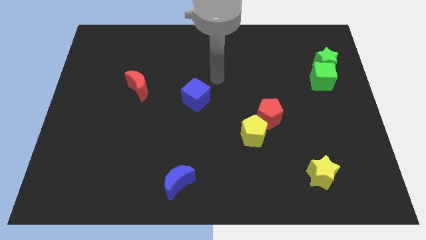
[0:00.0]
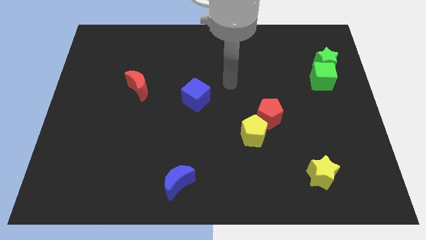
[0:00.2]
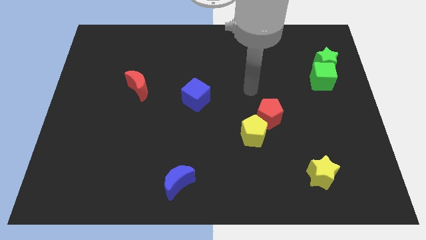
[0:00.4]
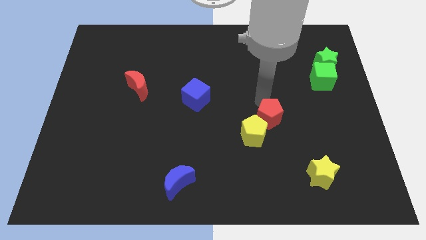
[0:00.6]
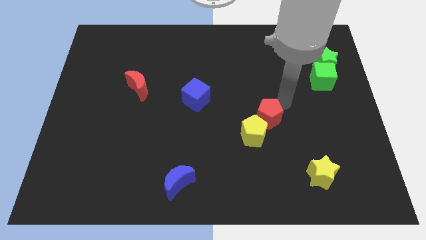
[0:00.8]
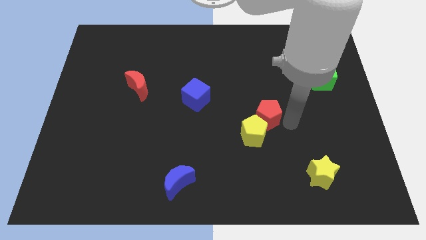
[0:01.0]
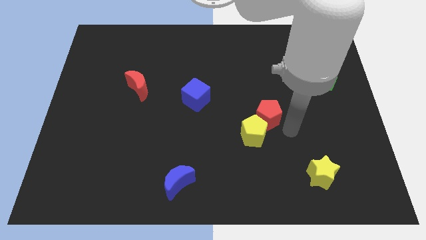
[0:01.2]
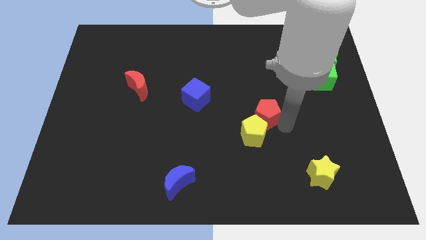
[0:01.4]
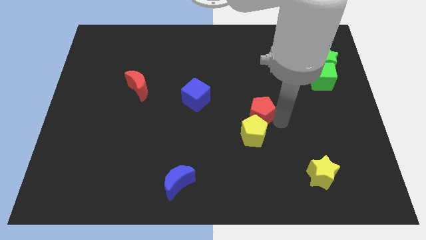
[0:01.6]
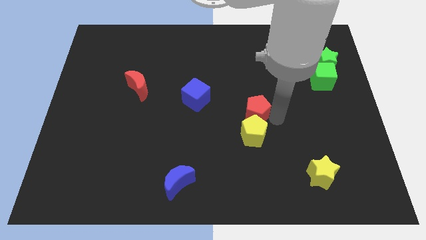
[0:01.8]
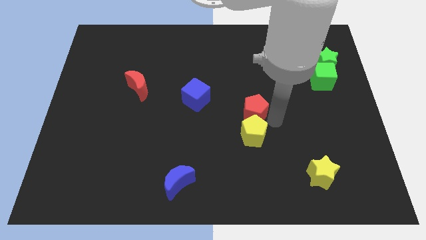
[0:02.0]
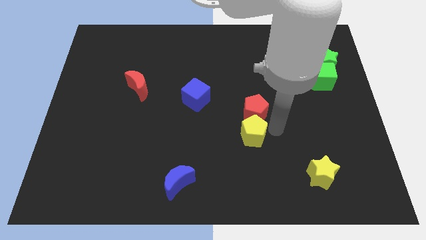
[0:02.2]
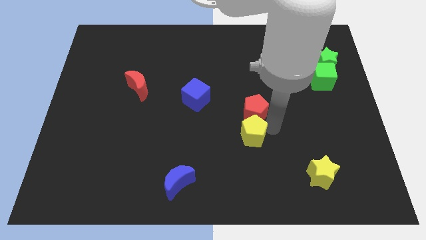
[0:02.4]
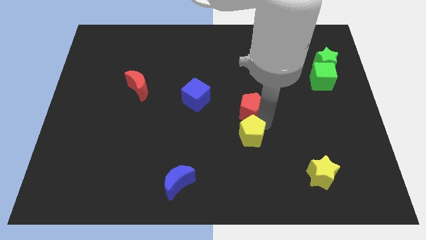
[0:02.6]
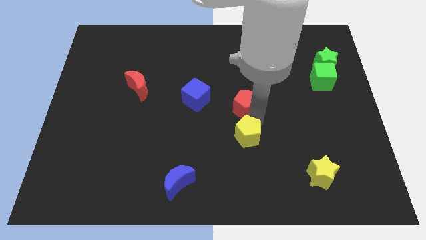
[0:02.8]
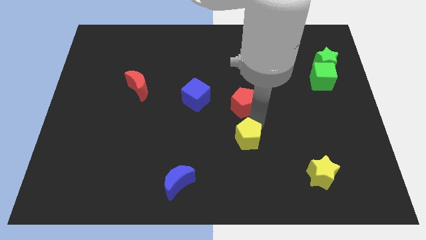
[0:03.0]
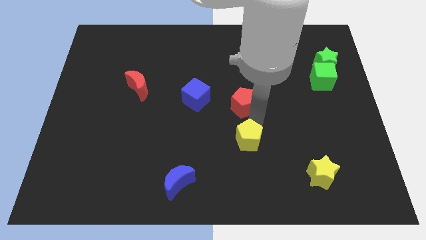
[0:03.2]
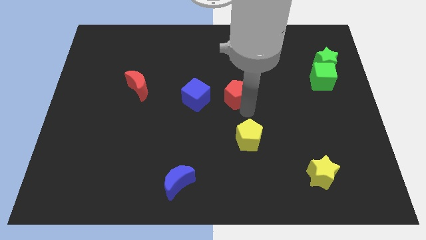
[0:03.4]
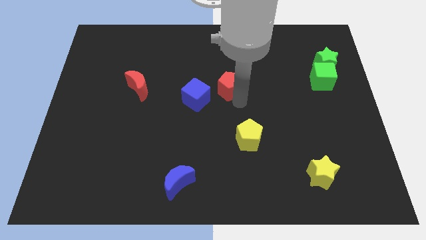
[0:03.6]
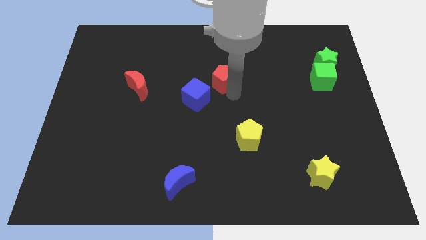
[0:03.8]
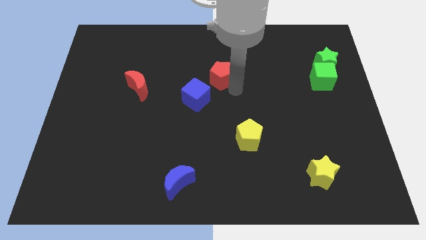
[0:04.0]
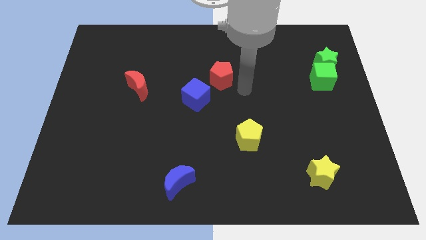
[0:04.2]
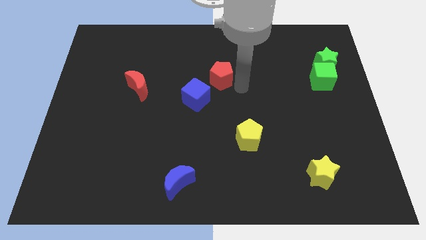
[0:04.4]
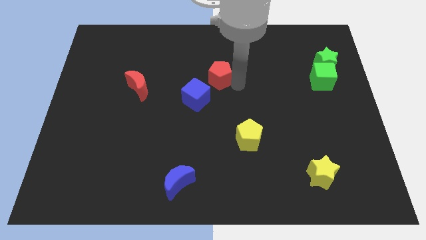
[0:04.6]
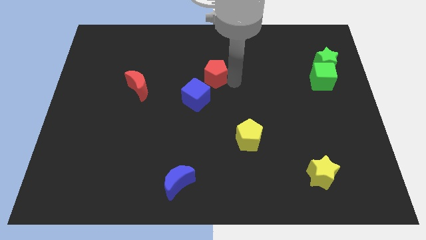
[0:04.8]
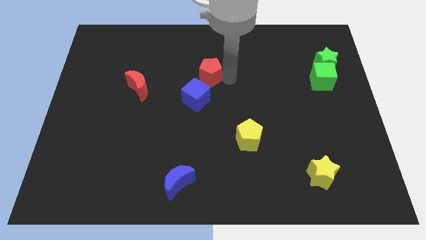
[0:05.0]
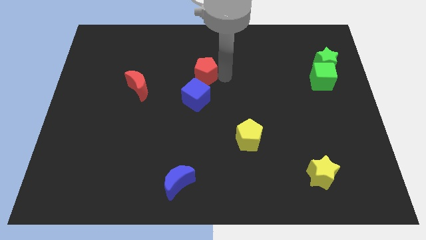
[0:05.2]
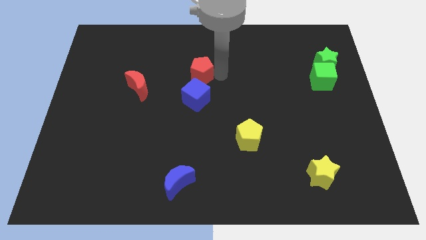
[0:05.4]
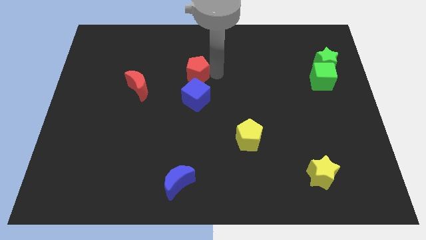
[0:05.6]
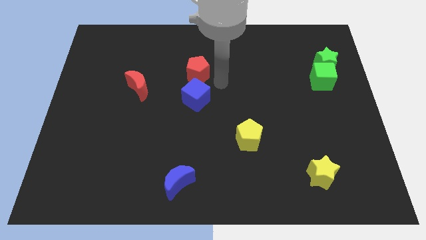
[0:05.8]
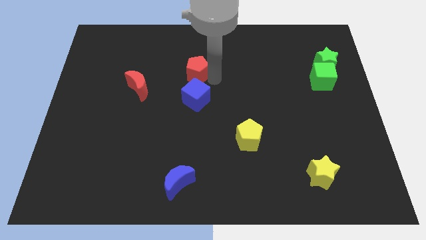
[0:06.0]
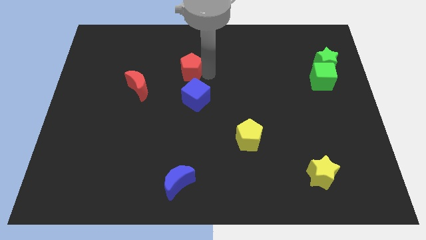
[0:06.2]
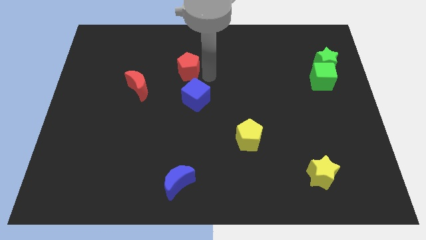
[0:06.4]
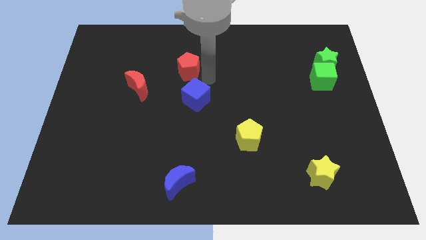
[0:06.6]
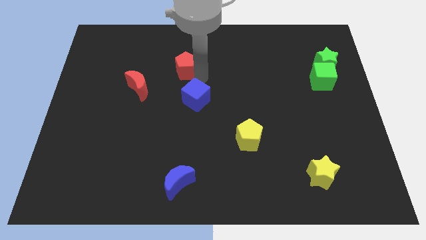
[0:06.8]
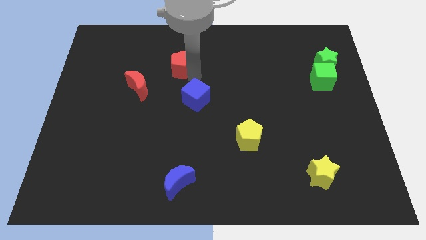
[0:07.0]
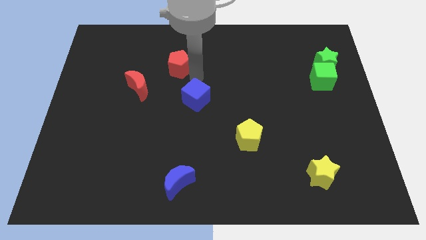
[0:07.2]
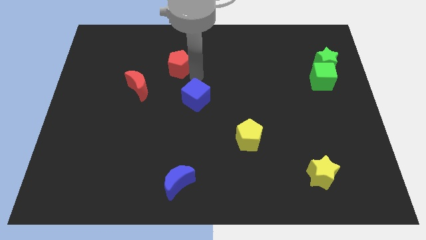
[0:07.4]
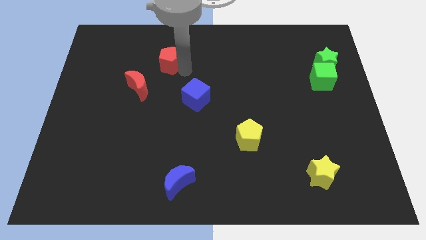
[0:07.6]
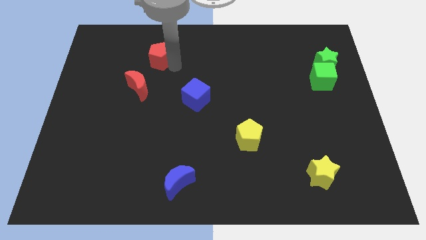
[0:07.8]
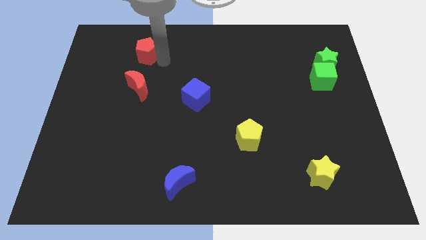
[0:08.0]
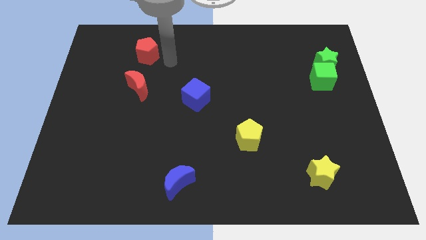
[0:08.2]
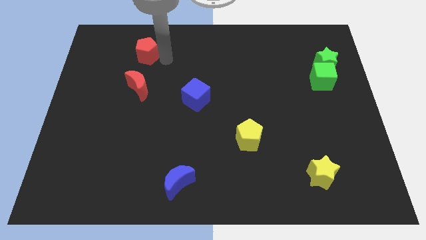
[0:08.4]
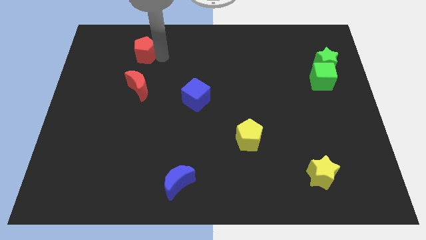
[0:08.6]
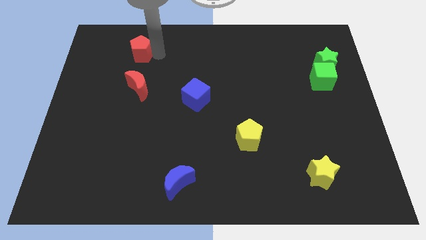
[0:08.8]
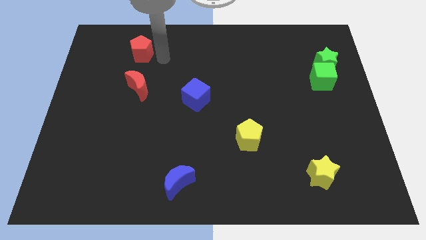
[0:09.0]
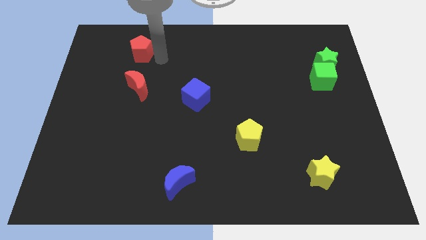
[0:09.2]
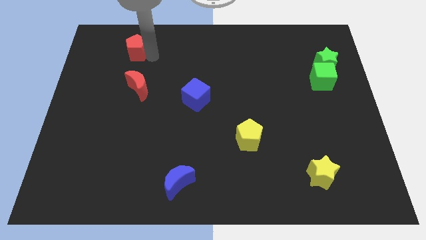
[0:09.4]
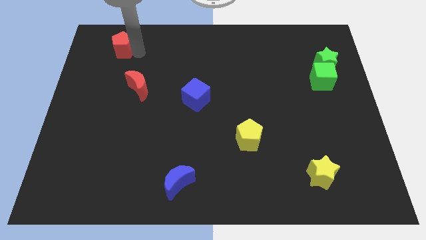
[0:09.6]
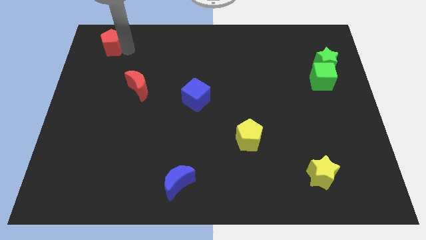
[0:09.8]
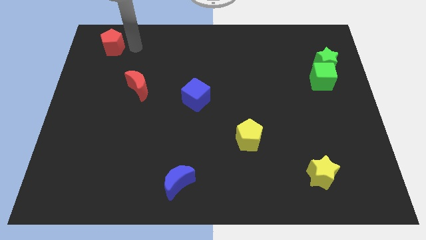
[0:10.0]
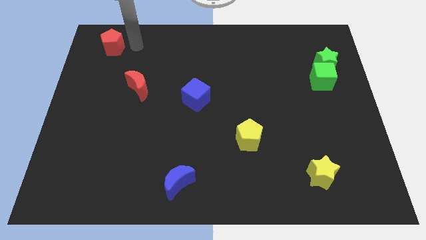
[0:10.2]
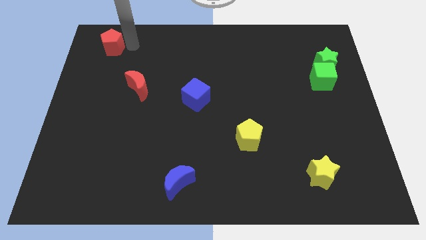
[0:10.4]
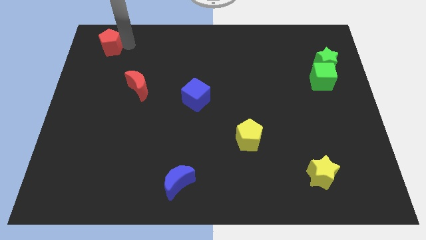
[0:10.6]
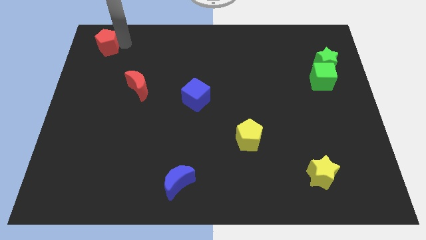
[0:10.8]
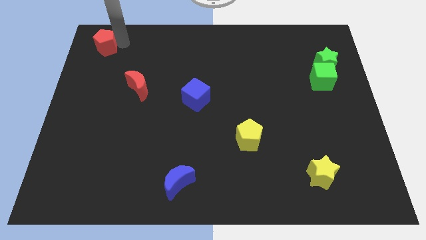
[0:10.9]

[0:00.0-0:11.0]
put the red pentagon to the upper left corner

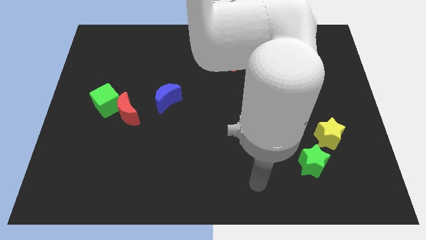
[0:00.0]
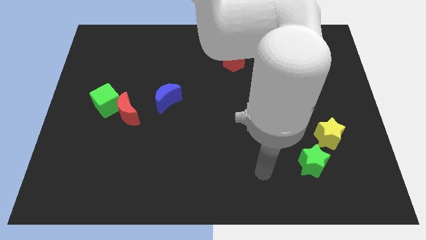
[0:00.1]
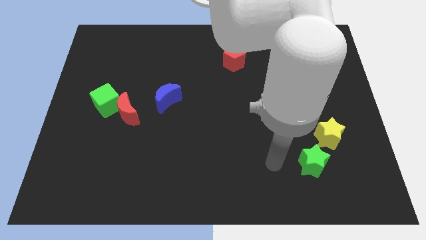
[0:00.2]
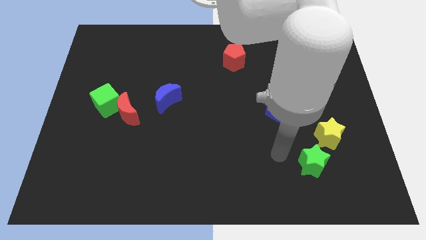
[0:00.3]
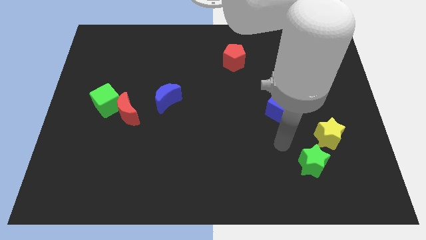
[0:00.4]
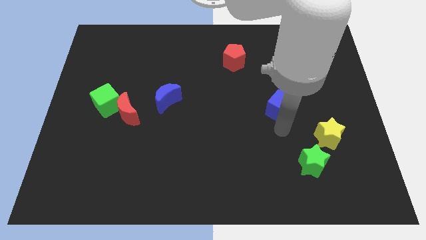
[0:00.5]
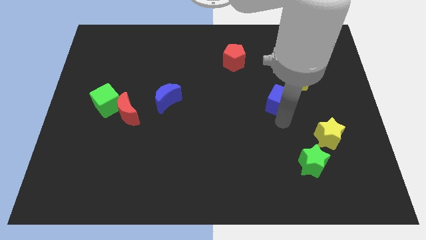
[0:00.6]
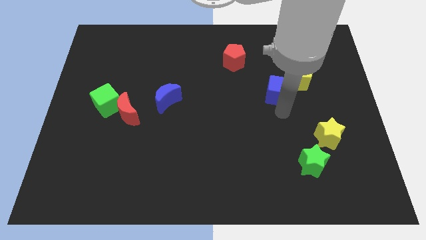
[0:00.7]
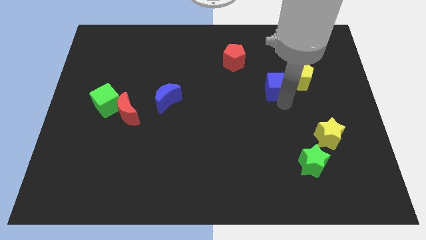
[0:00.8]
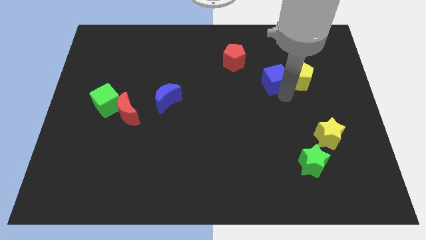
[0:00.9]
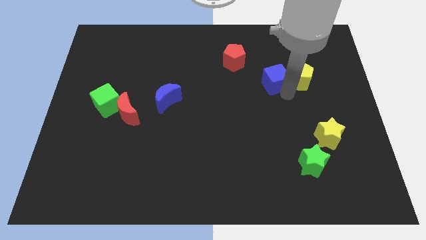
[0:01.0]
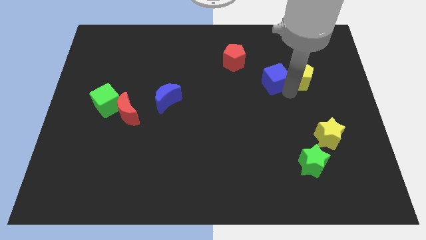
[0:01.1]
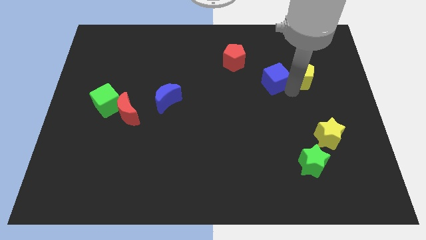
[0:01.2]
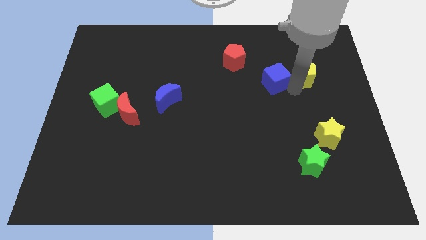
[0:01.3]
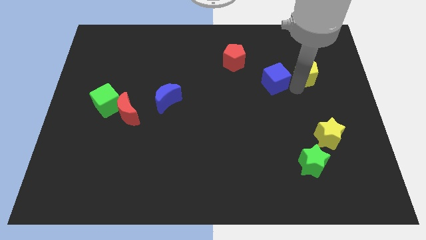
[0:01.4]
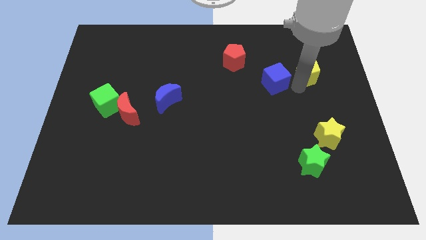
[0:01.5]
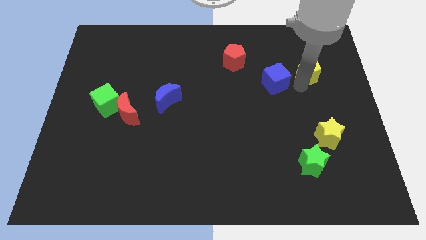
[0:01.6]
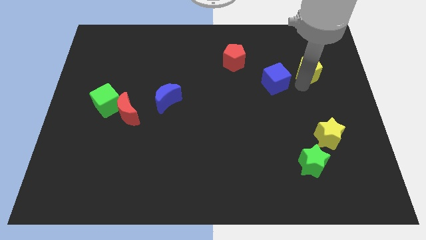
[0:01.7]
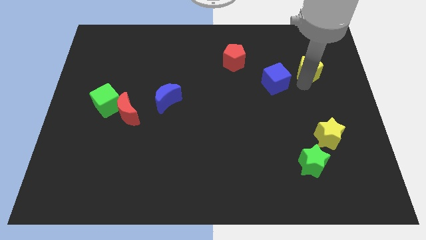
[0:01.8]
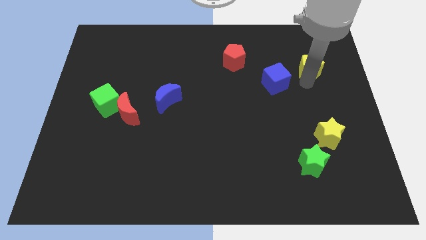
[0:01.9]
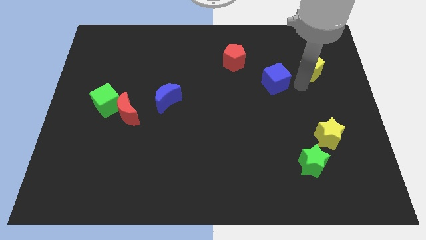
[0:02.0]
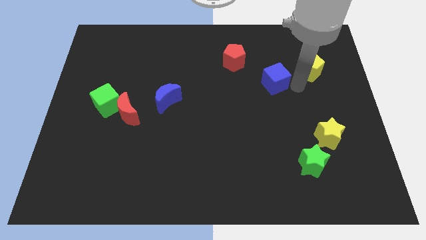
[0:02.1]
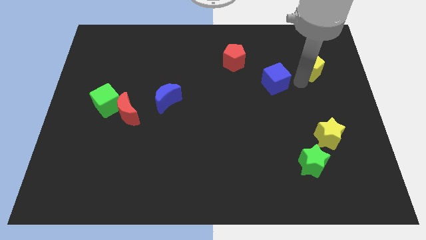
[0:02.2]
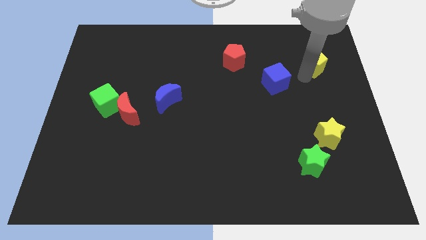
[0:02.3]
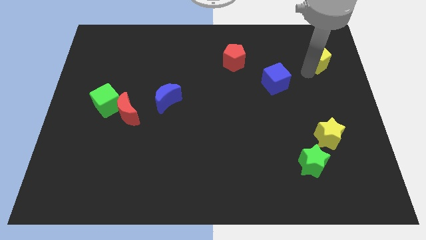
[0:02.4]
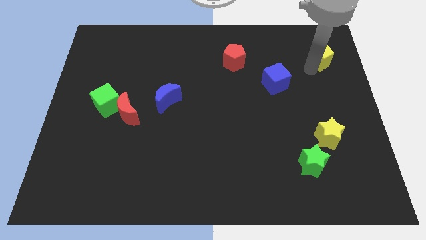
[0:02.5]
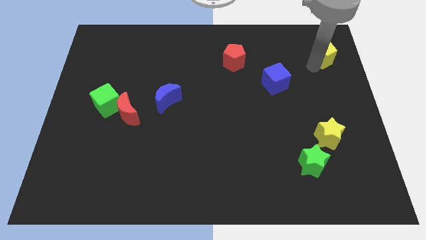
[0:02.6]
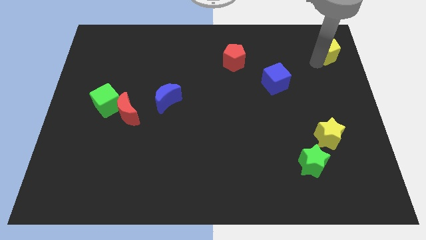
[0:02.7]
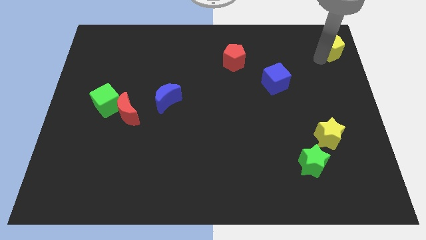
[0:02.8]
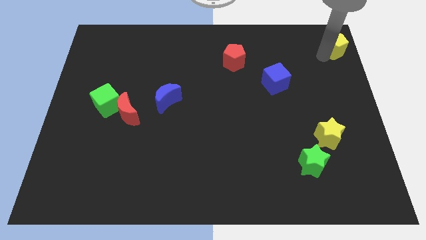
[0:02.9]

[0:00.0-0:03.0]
put the yellow pentagon to the top right
